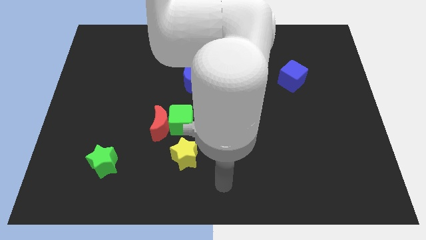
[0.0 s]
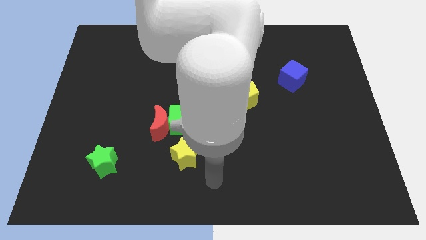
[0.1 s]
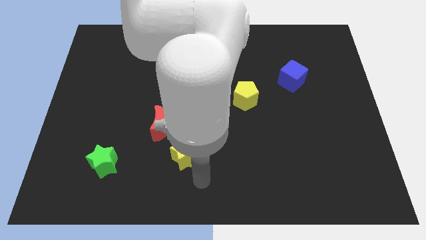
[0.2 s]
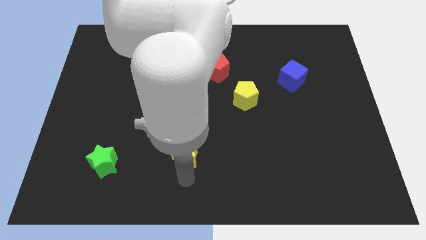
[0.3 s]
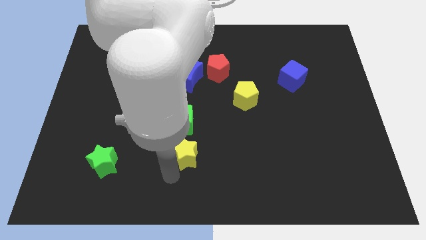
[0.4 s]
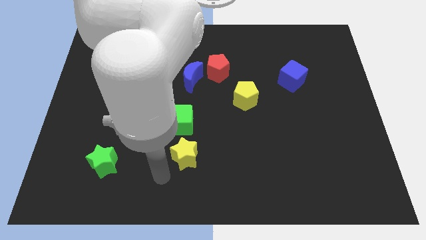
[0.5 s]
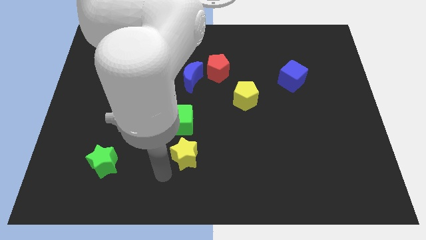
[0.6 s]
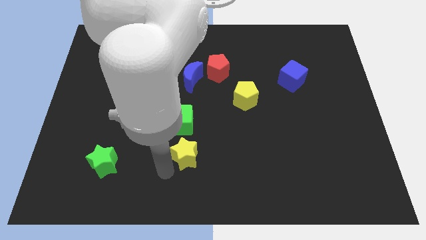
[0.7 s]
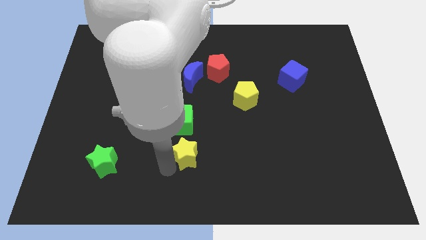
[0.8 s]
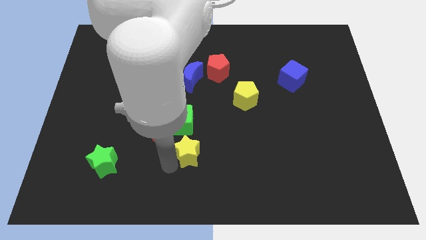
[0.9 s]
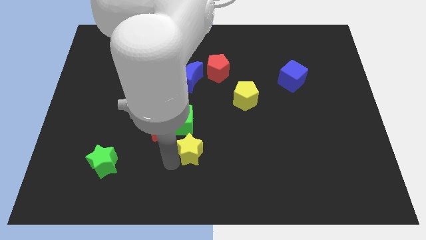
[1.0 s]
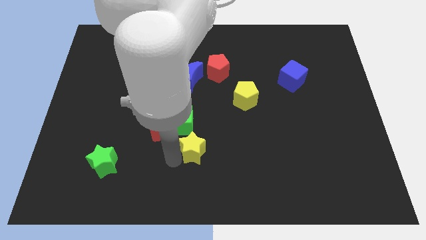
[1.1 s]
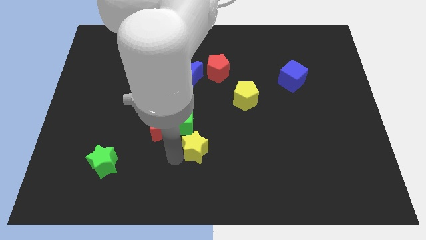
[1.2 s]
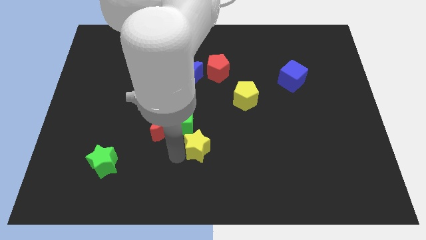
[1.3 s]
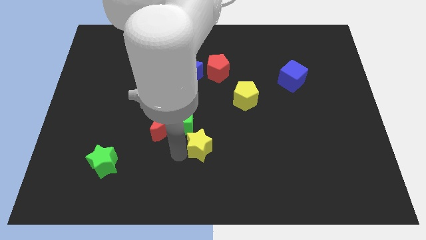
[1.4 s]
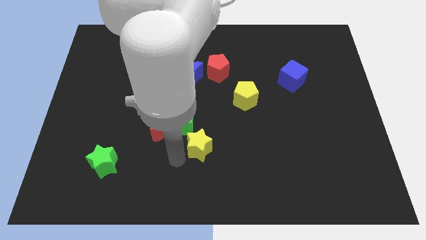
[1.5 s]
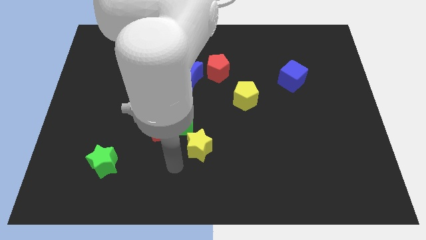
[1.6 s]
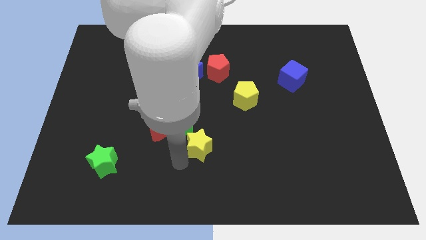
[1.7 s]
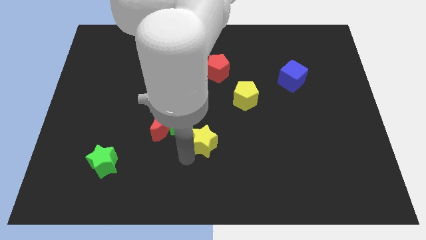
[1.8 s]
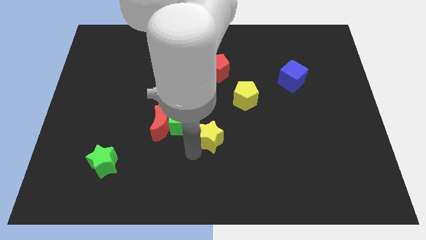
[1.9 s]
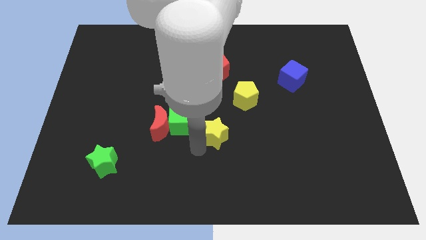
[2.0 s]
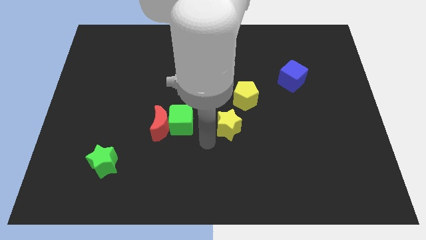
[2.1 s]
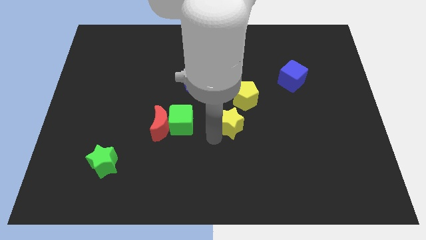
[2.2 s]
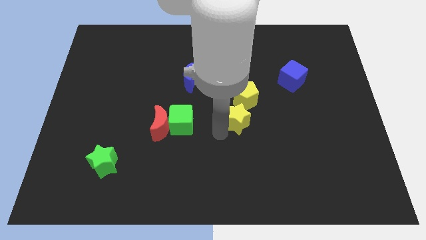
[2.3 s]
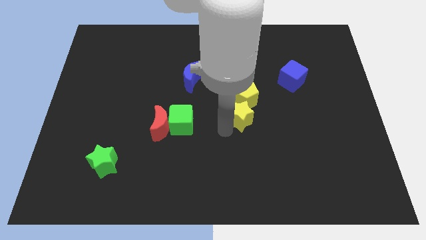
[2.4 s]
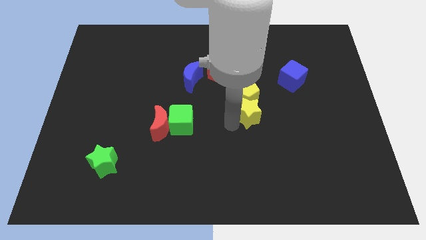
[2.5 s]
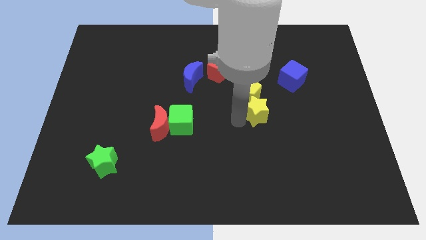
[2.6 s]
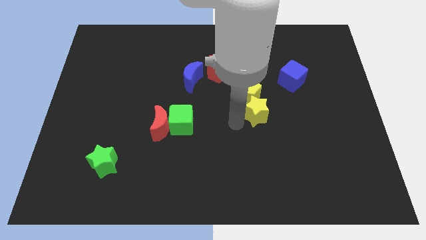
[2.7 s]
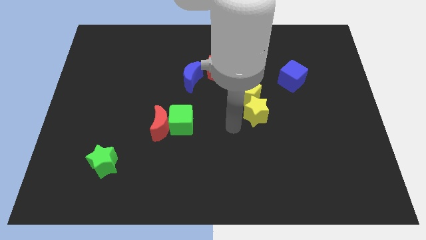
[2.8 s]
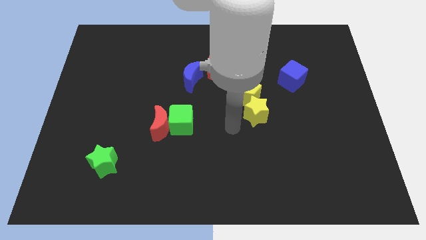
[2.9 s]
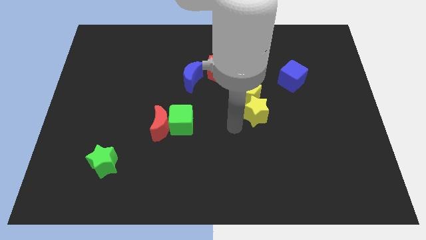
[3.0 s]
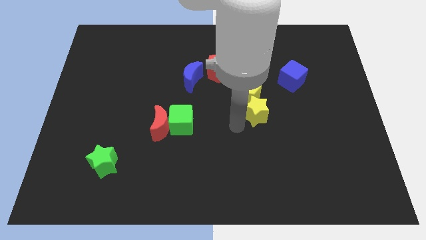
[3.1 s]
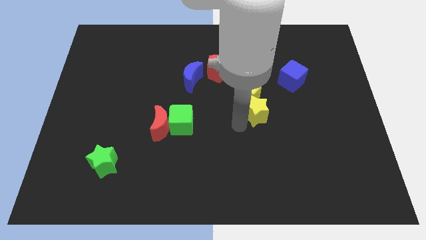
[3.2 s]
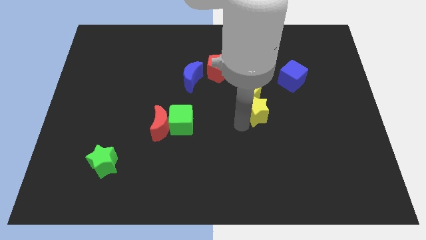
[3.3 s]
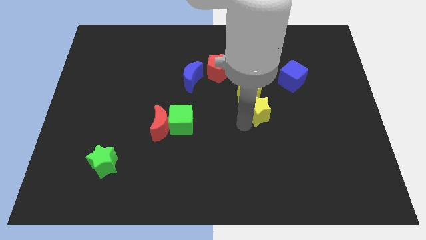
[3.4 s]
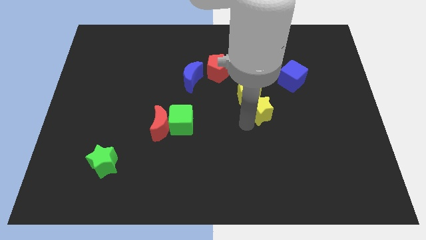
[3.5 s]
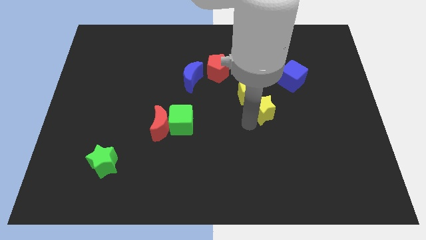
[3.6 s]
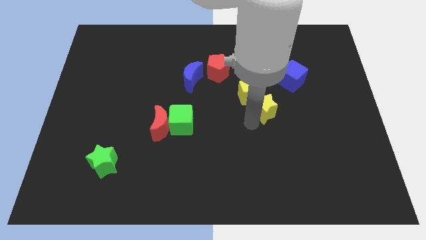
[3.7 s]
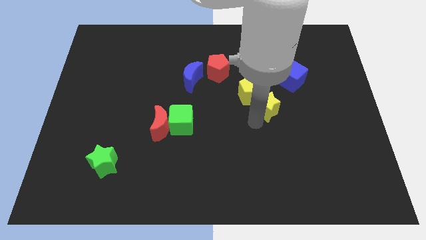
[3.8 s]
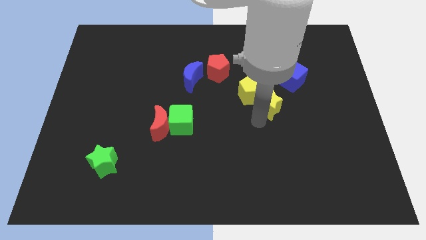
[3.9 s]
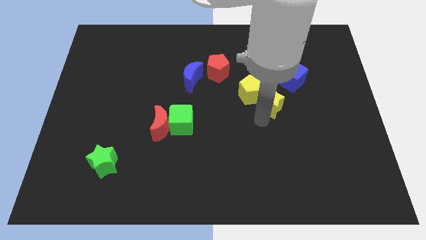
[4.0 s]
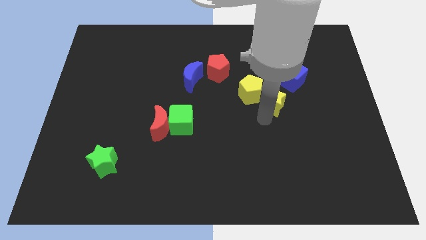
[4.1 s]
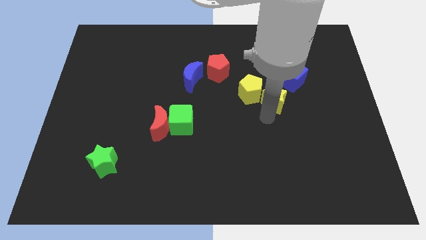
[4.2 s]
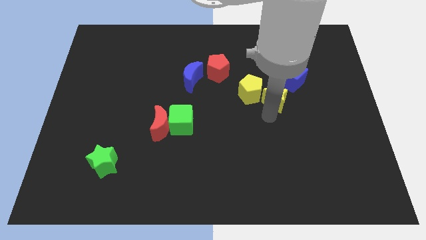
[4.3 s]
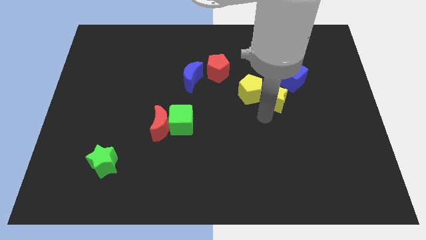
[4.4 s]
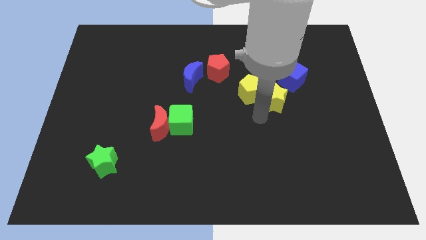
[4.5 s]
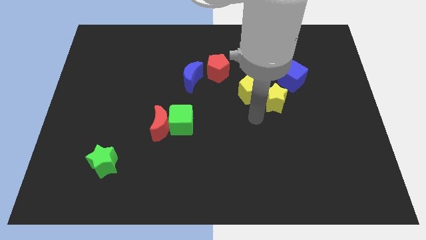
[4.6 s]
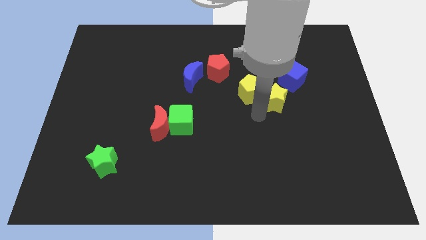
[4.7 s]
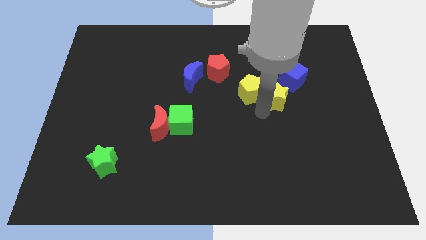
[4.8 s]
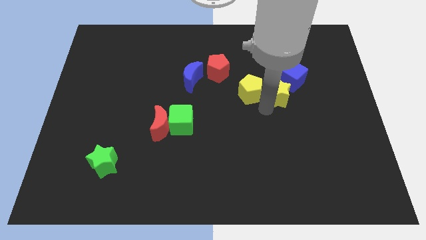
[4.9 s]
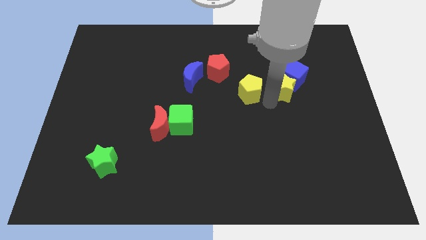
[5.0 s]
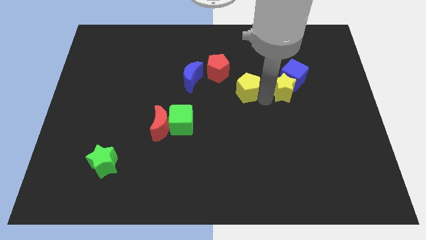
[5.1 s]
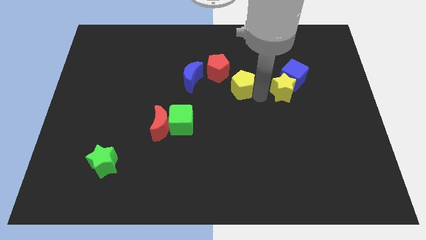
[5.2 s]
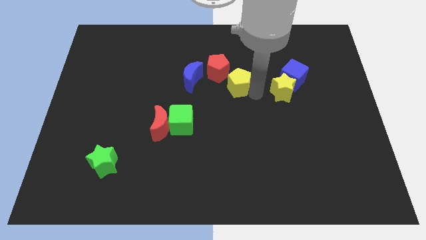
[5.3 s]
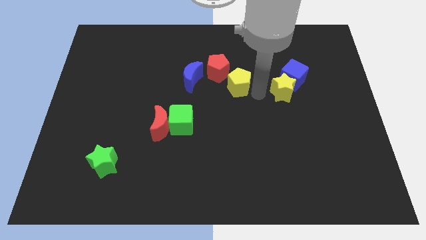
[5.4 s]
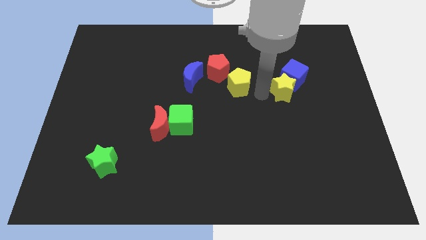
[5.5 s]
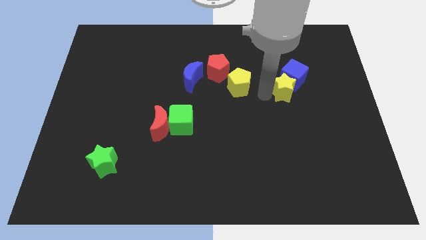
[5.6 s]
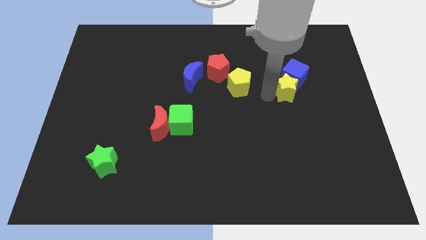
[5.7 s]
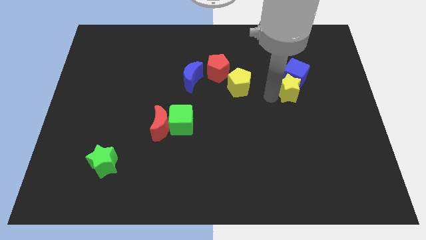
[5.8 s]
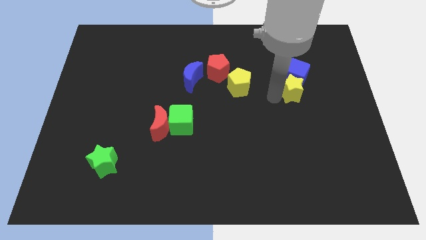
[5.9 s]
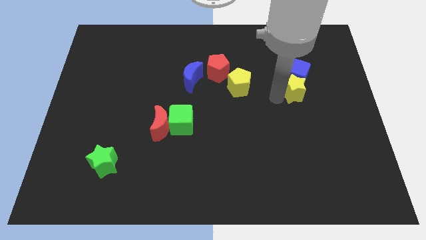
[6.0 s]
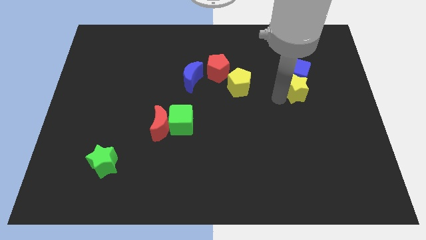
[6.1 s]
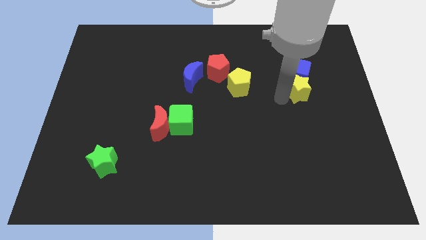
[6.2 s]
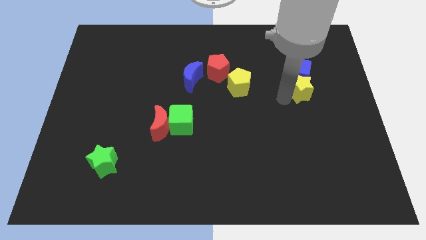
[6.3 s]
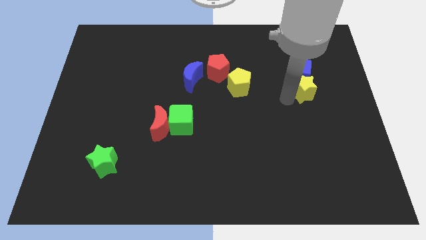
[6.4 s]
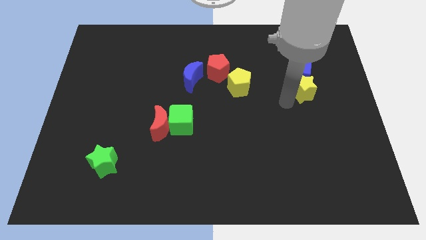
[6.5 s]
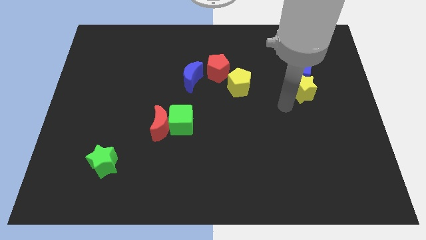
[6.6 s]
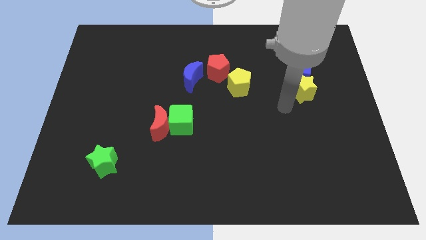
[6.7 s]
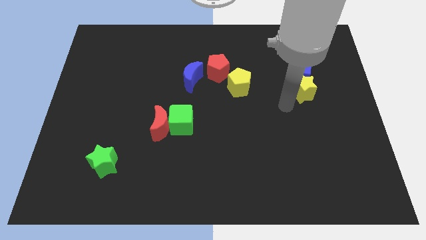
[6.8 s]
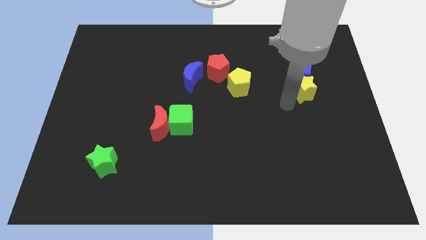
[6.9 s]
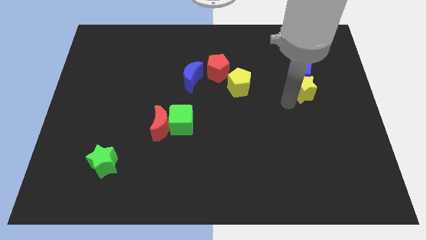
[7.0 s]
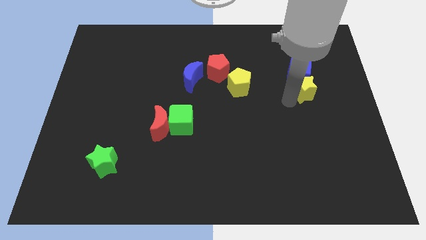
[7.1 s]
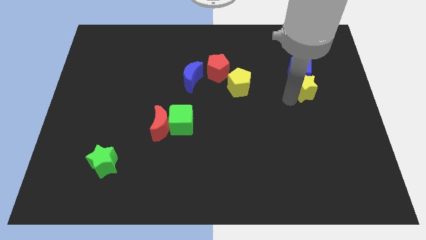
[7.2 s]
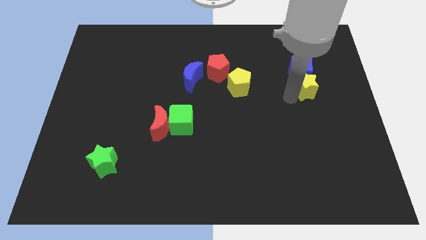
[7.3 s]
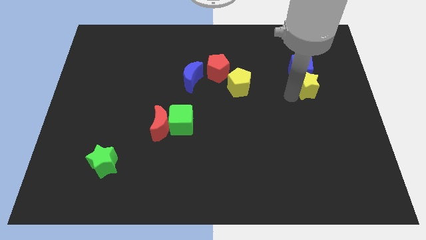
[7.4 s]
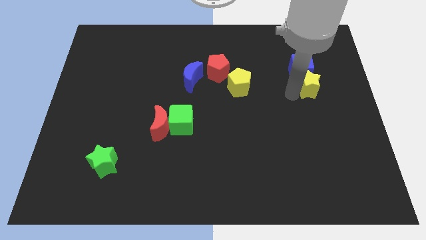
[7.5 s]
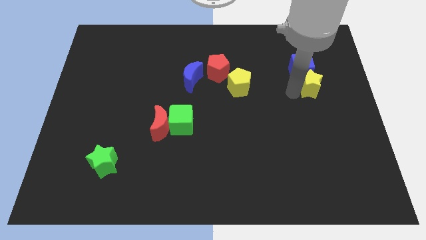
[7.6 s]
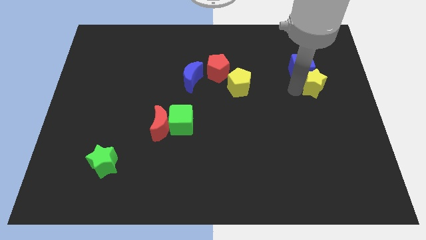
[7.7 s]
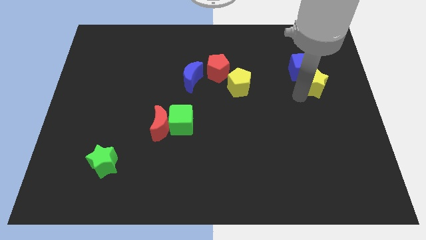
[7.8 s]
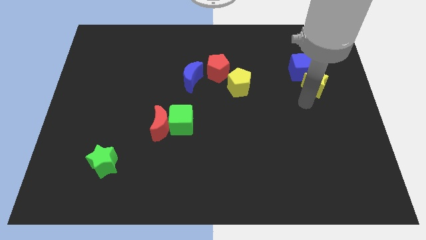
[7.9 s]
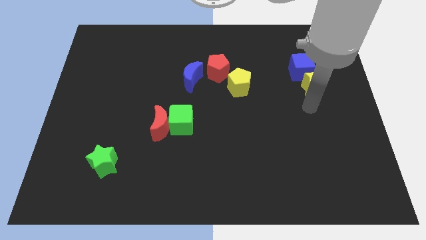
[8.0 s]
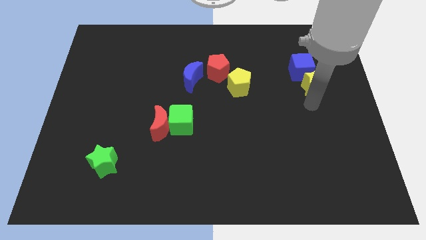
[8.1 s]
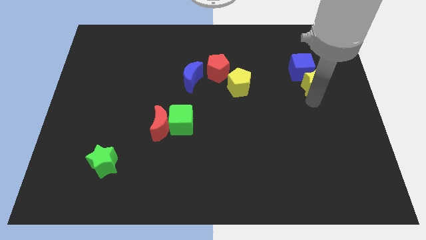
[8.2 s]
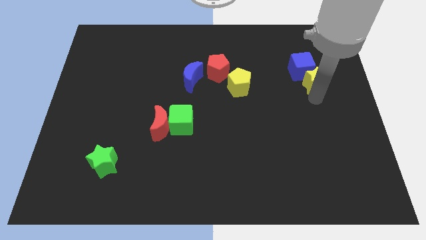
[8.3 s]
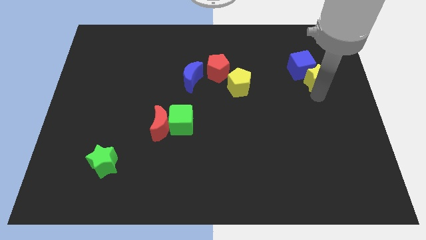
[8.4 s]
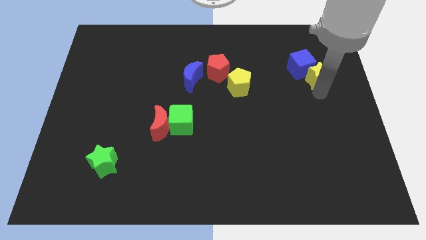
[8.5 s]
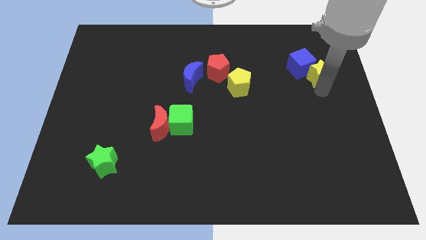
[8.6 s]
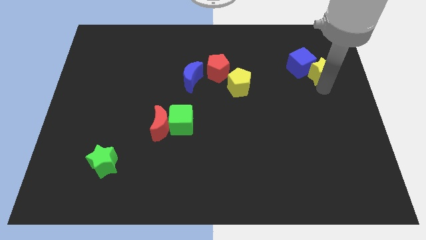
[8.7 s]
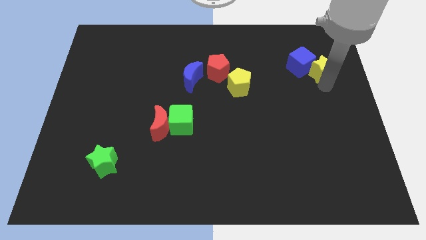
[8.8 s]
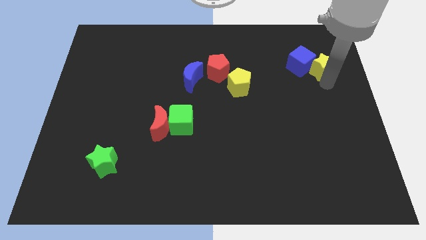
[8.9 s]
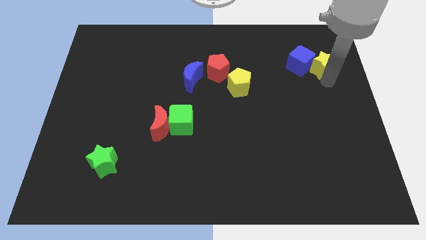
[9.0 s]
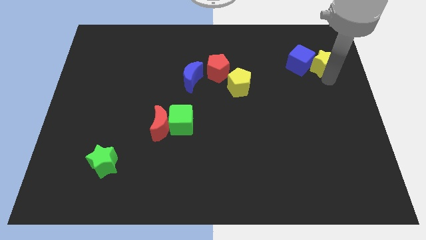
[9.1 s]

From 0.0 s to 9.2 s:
put the yellow star diagonally up and to the right of the blue cube
